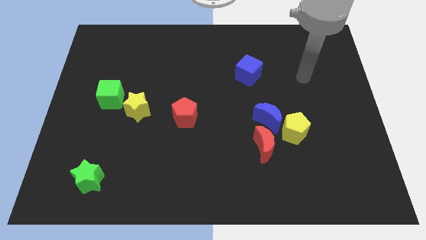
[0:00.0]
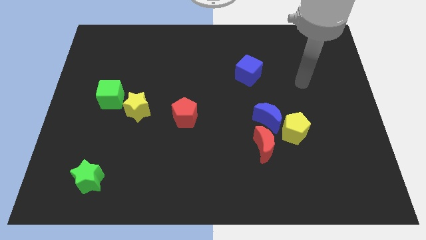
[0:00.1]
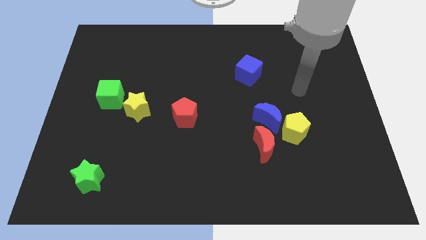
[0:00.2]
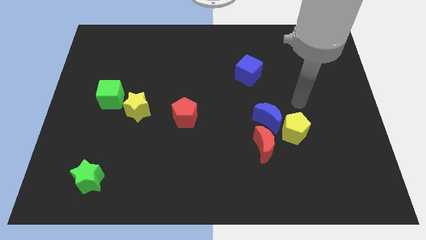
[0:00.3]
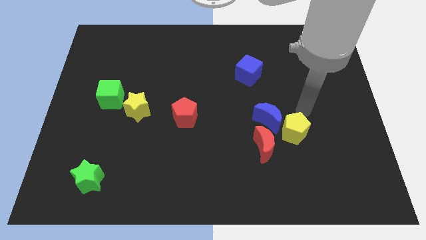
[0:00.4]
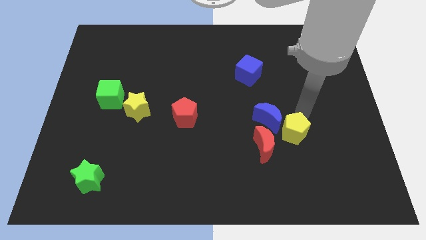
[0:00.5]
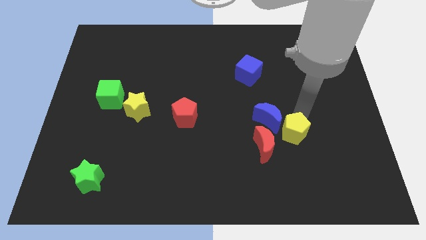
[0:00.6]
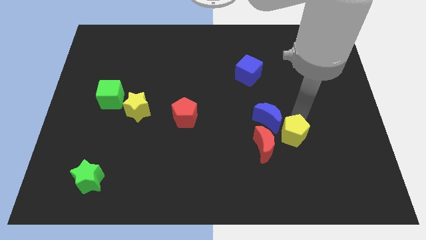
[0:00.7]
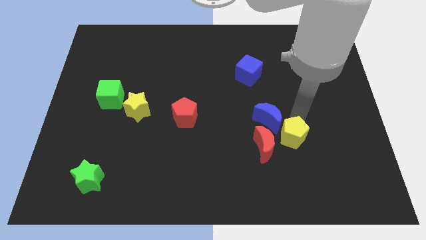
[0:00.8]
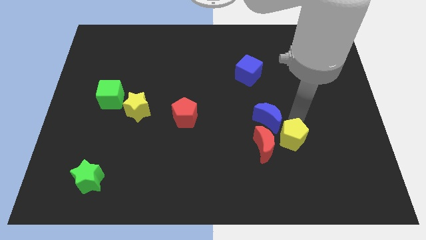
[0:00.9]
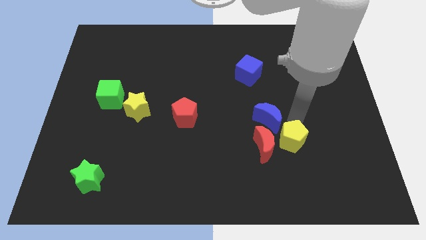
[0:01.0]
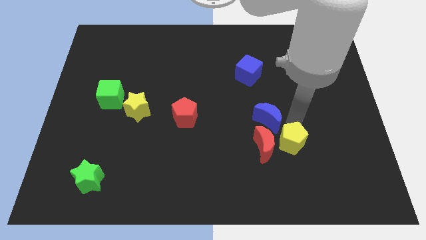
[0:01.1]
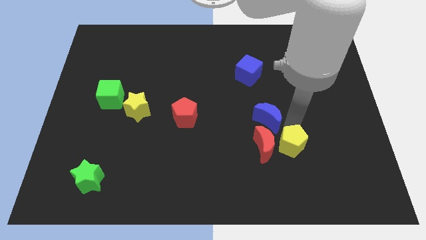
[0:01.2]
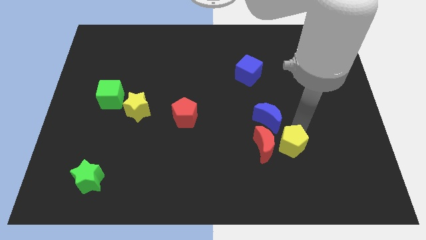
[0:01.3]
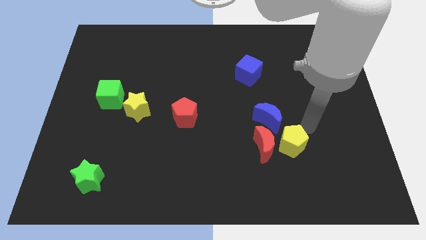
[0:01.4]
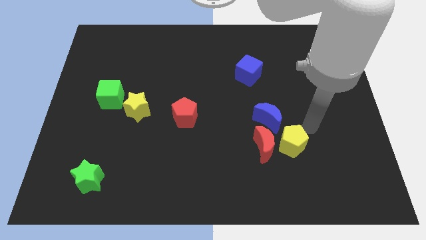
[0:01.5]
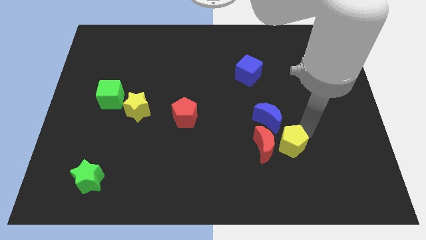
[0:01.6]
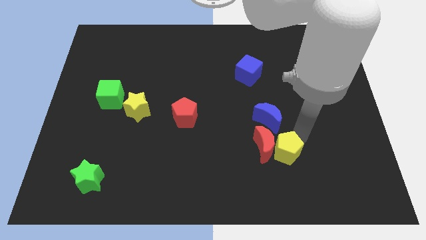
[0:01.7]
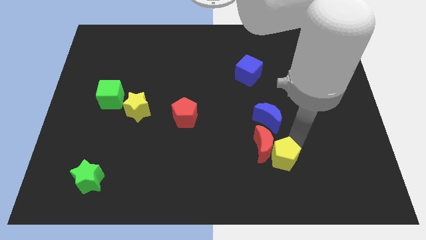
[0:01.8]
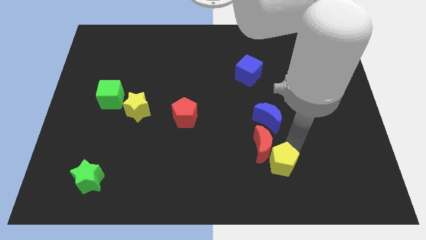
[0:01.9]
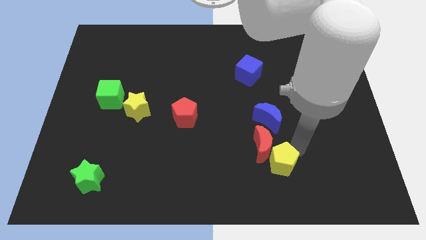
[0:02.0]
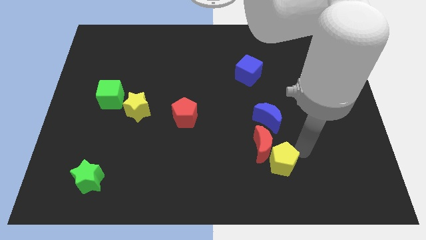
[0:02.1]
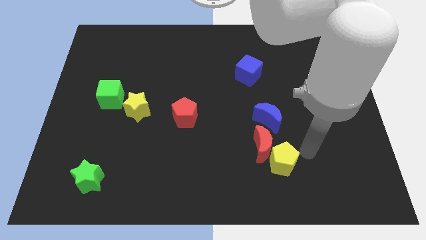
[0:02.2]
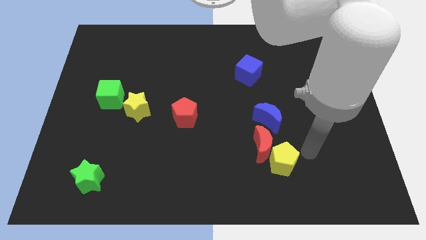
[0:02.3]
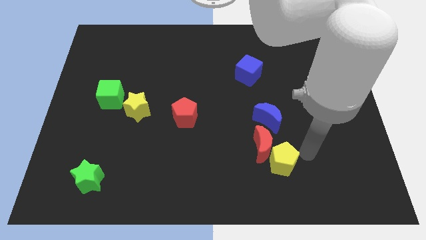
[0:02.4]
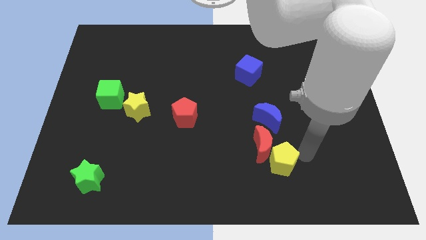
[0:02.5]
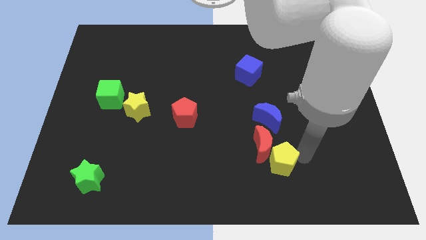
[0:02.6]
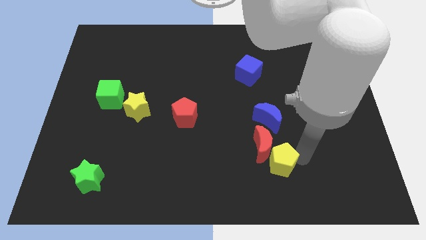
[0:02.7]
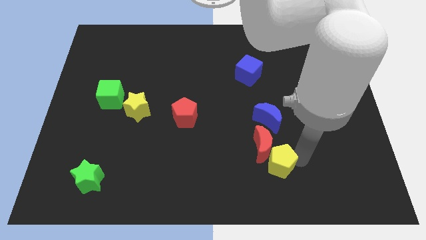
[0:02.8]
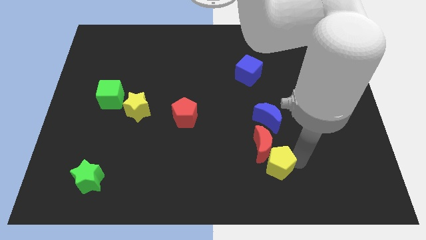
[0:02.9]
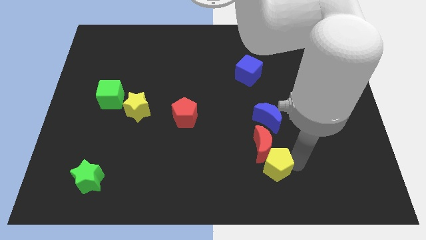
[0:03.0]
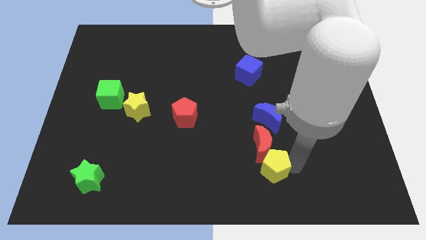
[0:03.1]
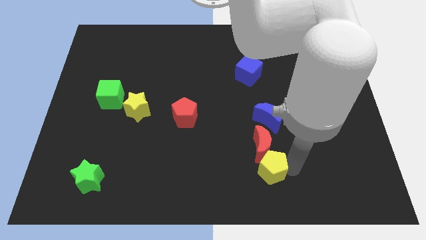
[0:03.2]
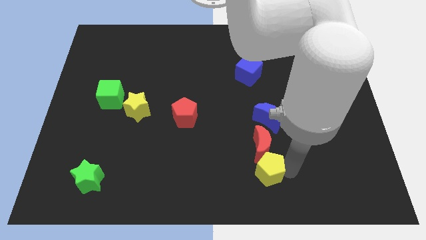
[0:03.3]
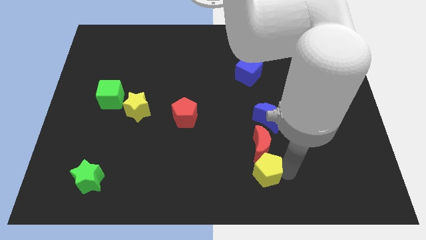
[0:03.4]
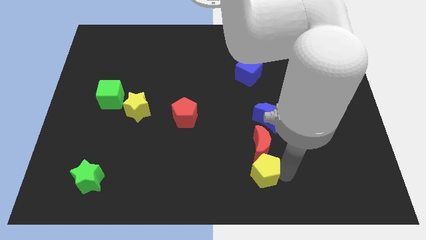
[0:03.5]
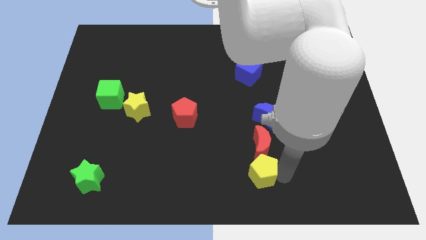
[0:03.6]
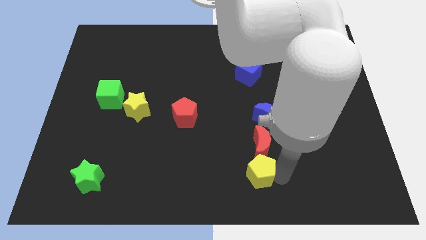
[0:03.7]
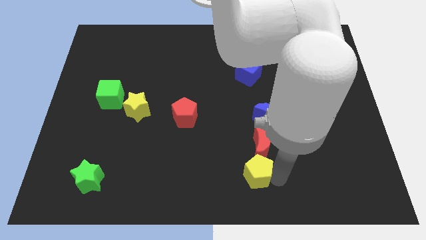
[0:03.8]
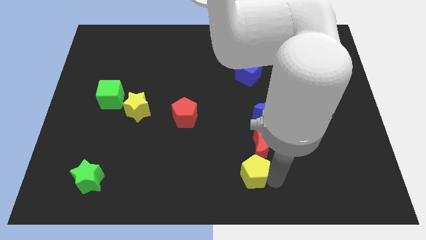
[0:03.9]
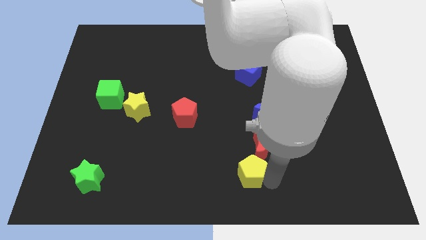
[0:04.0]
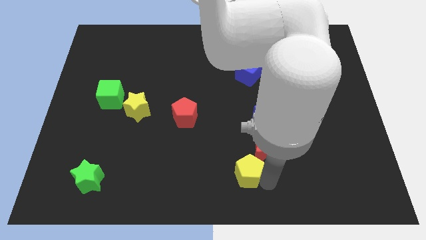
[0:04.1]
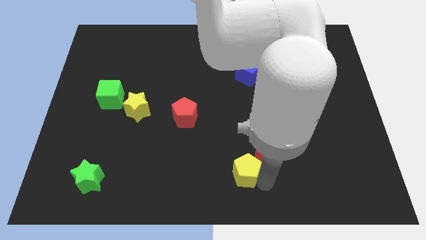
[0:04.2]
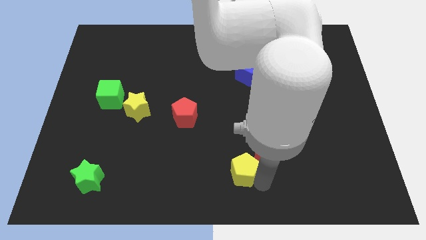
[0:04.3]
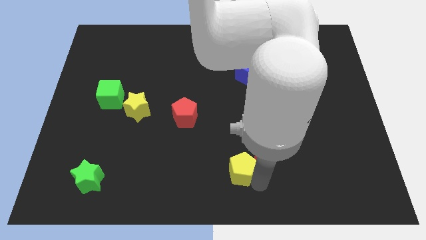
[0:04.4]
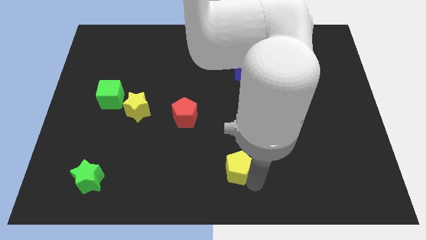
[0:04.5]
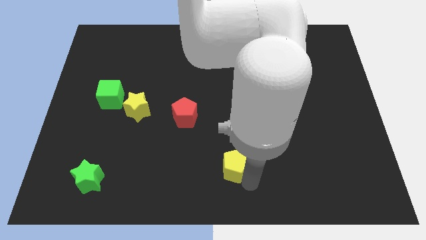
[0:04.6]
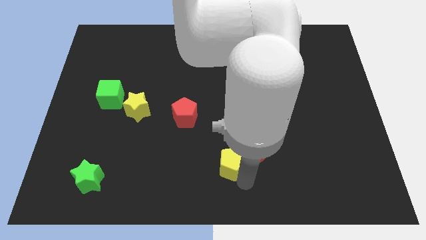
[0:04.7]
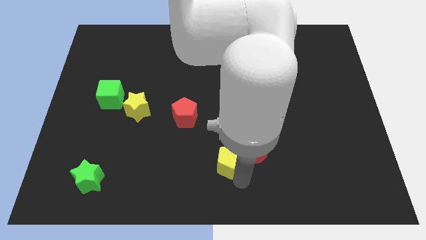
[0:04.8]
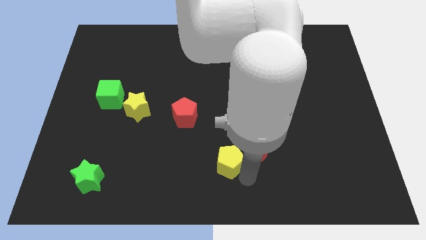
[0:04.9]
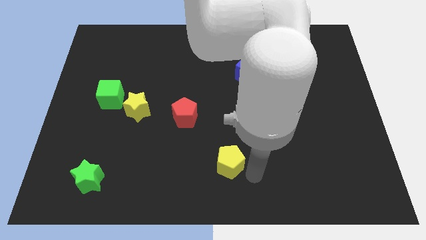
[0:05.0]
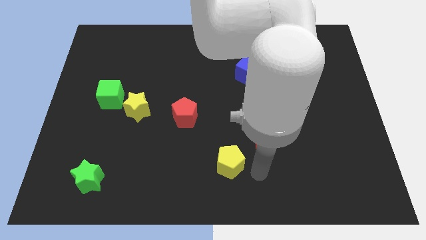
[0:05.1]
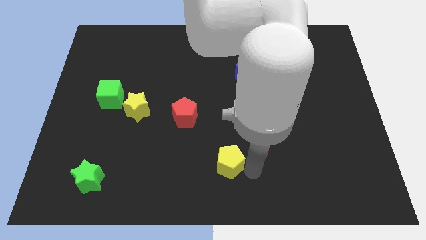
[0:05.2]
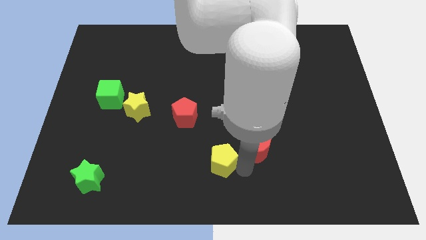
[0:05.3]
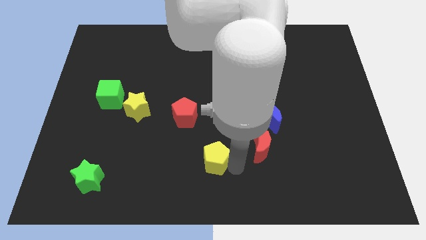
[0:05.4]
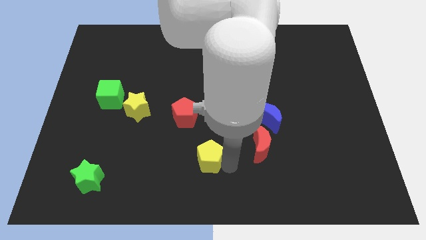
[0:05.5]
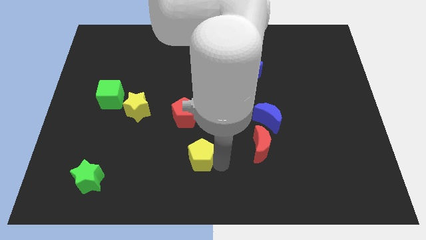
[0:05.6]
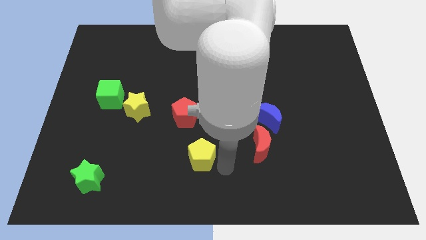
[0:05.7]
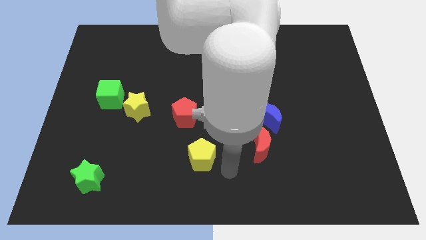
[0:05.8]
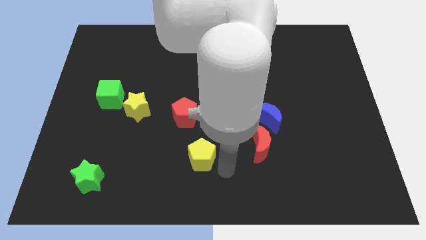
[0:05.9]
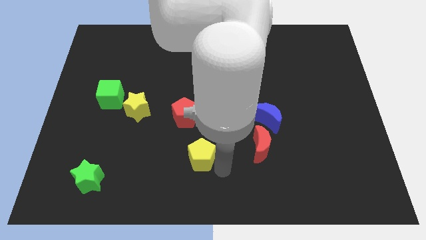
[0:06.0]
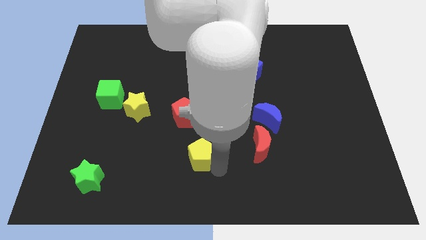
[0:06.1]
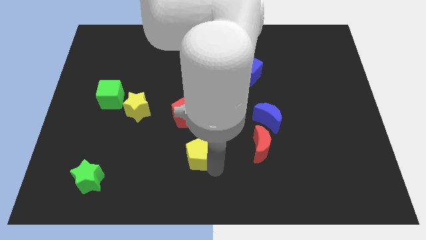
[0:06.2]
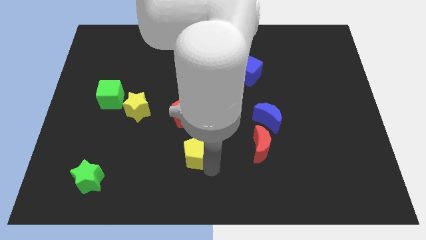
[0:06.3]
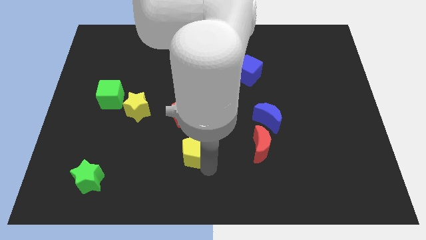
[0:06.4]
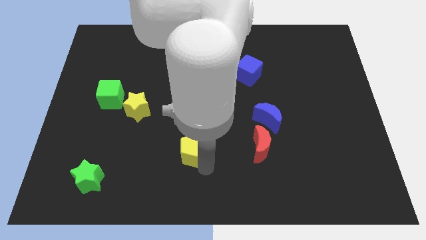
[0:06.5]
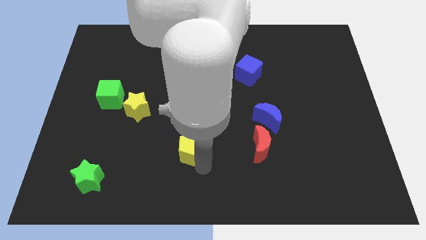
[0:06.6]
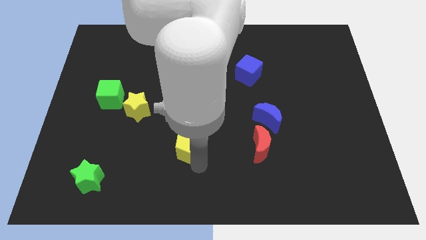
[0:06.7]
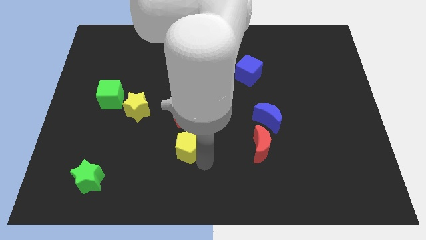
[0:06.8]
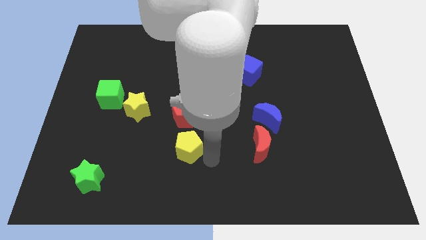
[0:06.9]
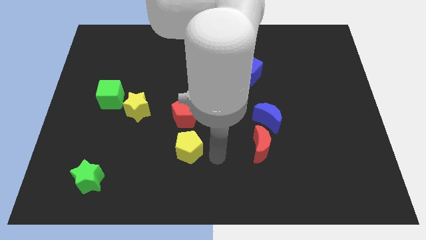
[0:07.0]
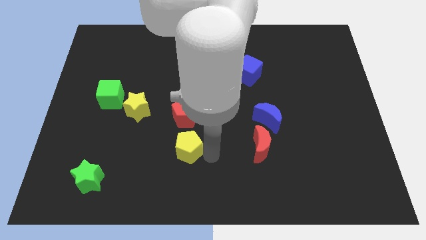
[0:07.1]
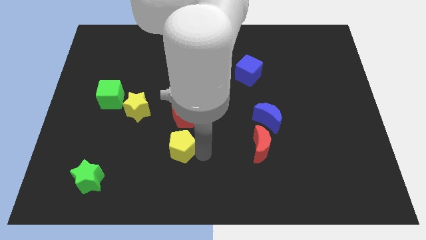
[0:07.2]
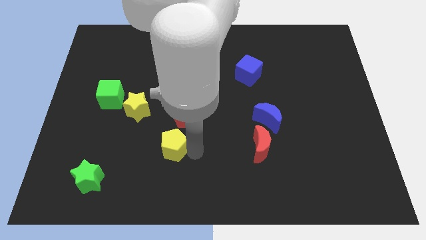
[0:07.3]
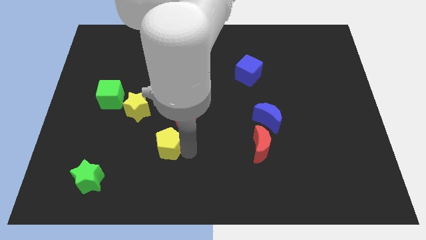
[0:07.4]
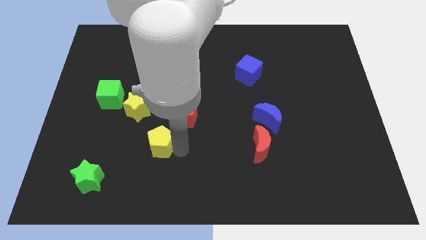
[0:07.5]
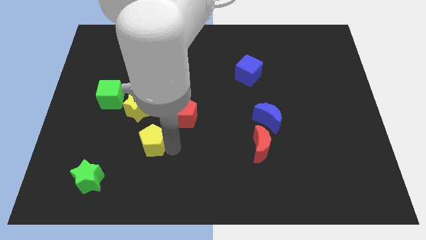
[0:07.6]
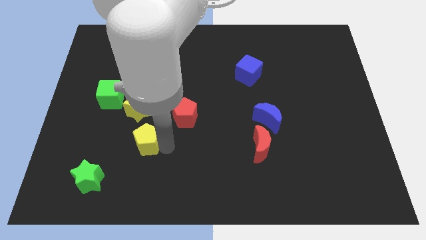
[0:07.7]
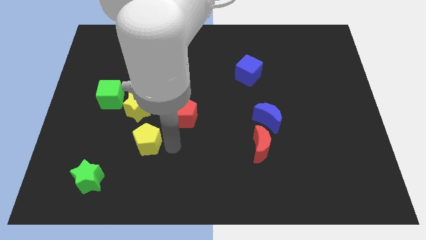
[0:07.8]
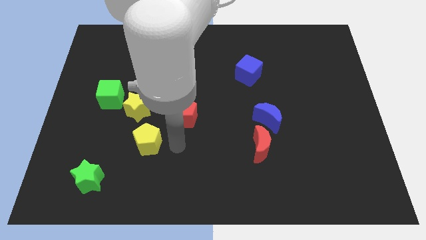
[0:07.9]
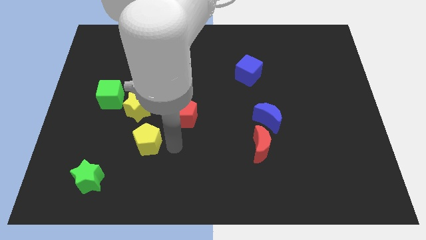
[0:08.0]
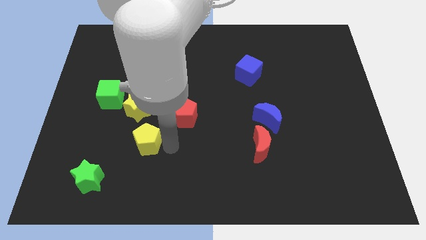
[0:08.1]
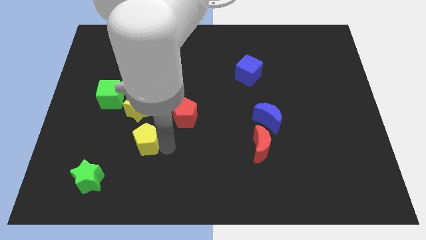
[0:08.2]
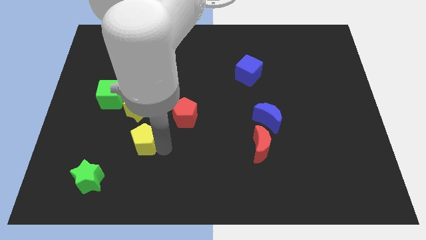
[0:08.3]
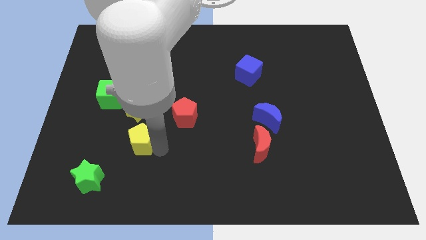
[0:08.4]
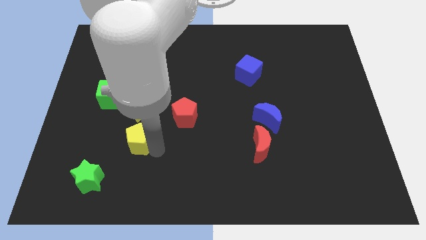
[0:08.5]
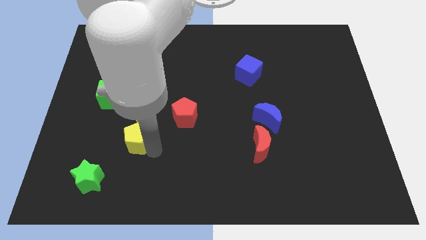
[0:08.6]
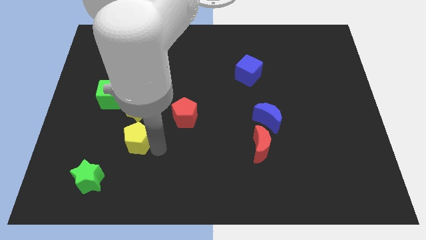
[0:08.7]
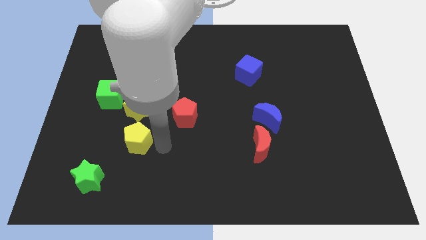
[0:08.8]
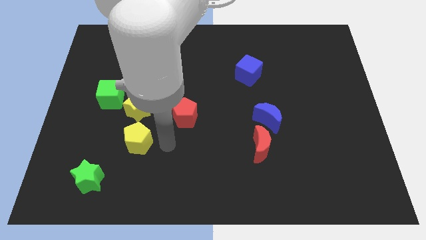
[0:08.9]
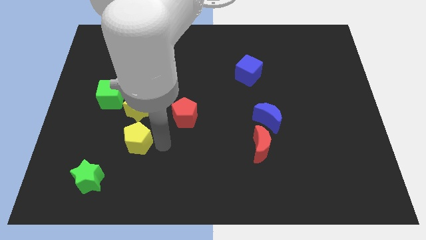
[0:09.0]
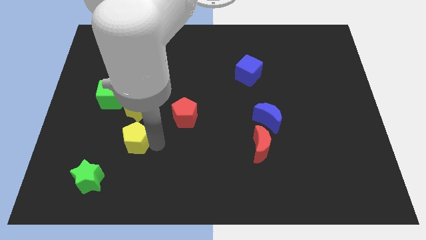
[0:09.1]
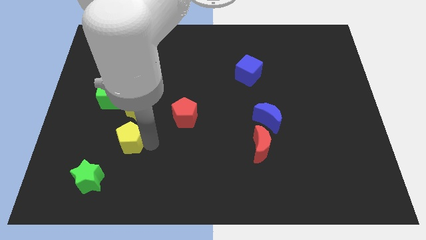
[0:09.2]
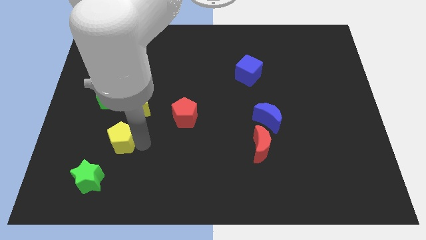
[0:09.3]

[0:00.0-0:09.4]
put the yellow pentagon to the bottom of the green cube
